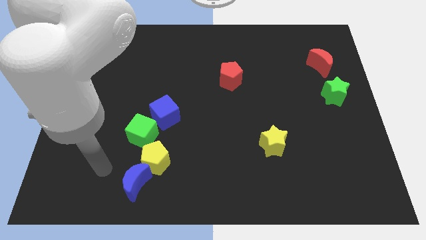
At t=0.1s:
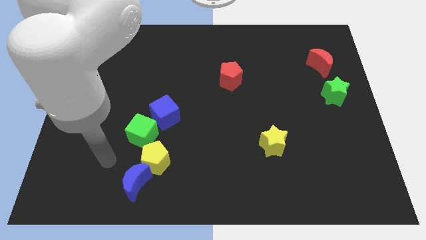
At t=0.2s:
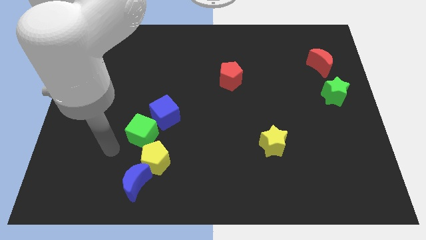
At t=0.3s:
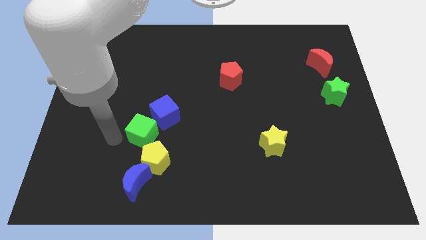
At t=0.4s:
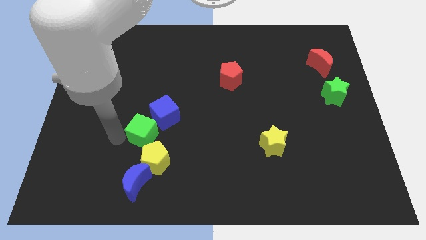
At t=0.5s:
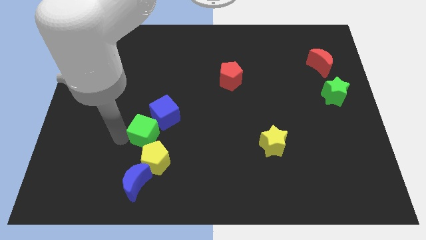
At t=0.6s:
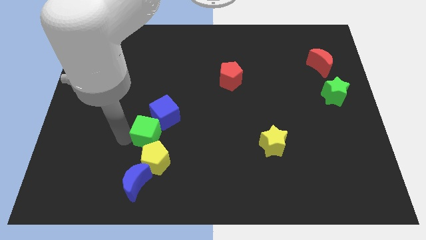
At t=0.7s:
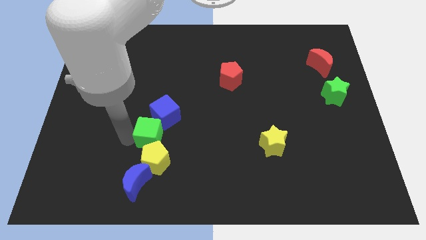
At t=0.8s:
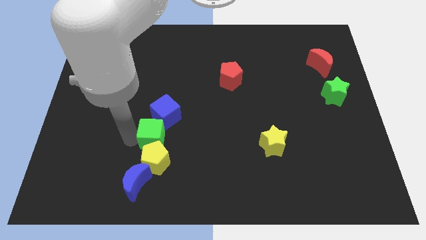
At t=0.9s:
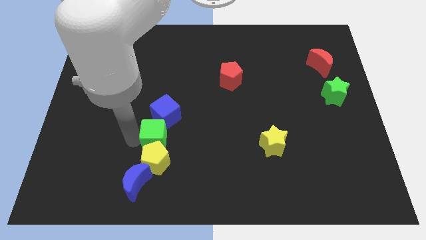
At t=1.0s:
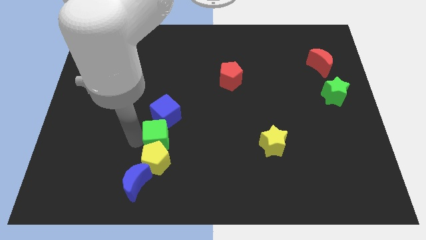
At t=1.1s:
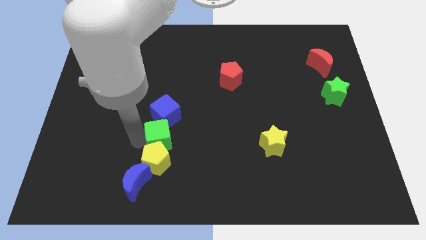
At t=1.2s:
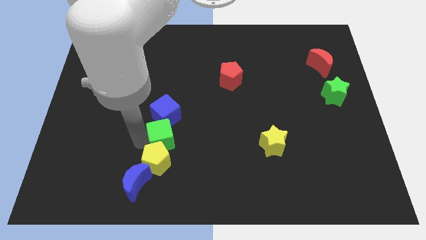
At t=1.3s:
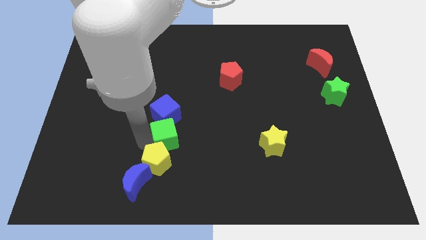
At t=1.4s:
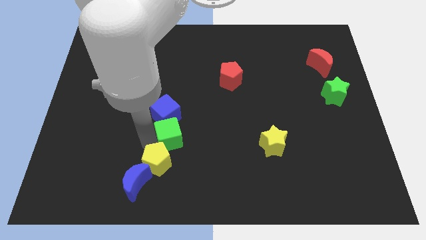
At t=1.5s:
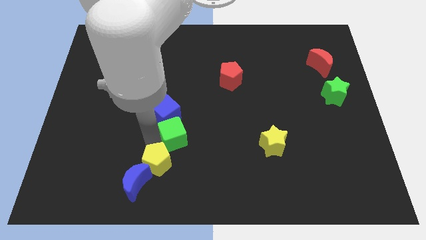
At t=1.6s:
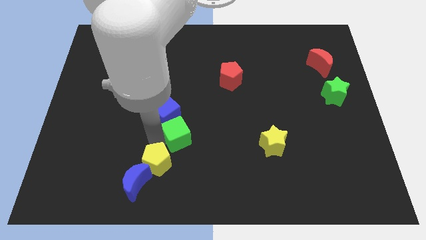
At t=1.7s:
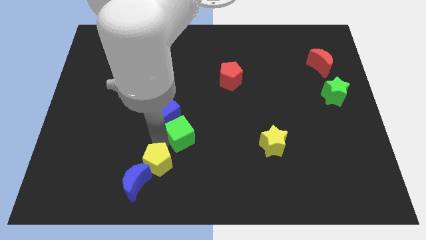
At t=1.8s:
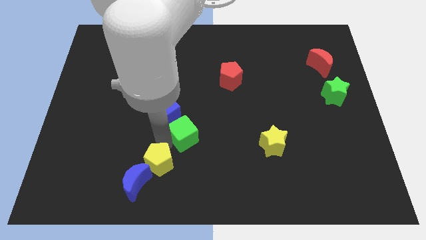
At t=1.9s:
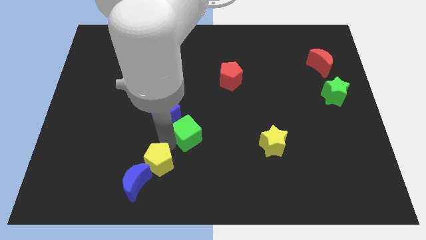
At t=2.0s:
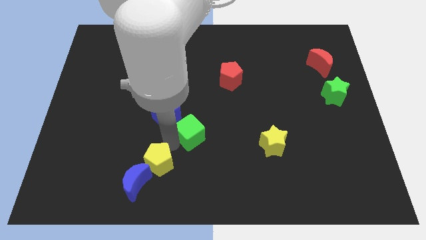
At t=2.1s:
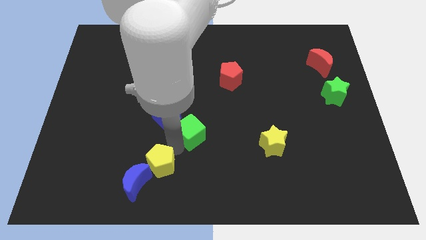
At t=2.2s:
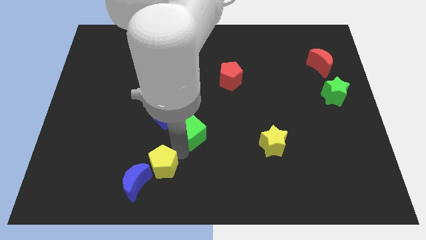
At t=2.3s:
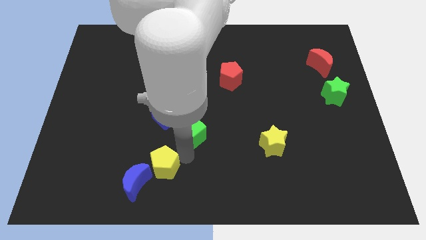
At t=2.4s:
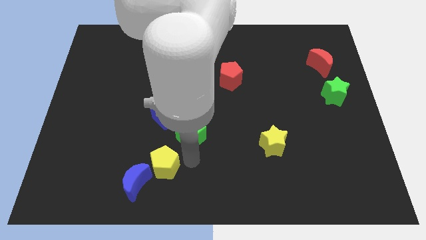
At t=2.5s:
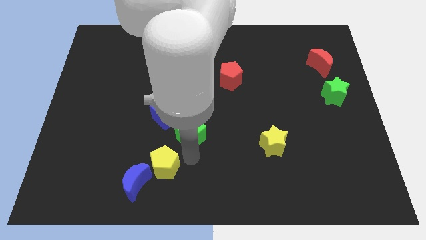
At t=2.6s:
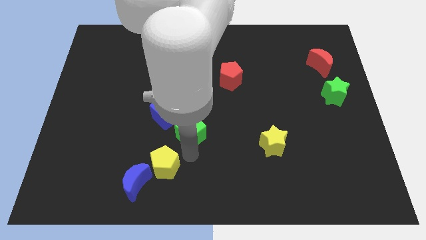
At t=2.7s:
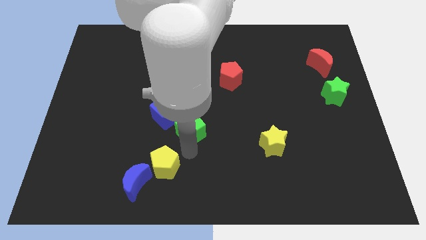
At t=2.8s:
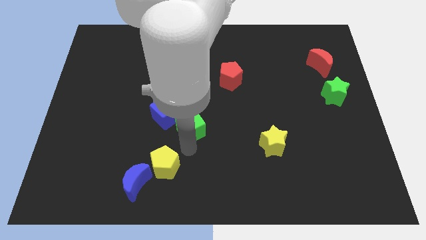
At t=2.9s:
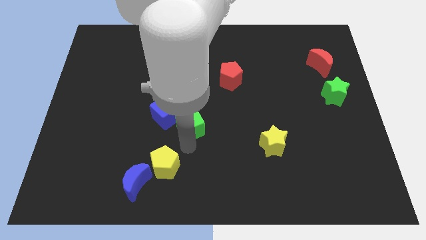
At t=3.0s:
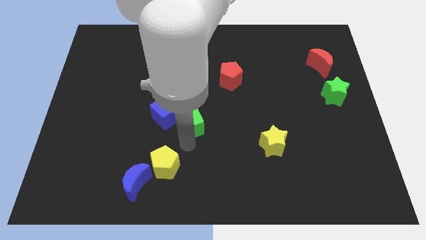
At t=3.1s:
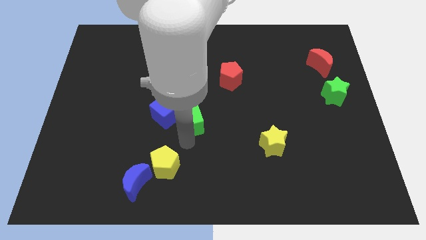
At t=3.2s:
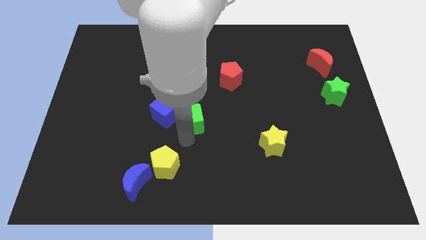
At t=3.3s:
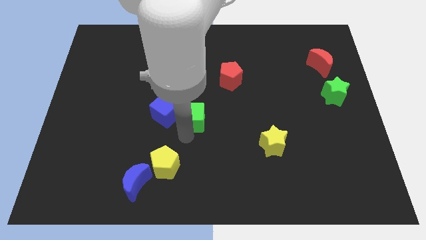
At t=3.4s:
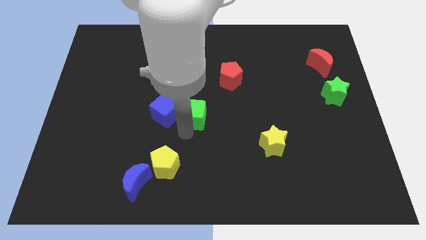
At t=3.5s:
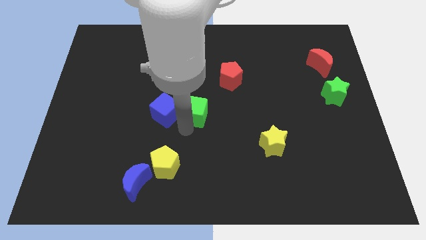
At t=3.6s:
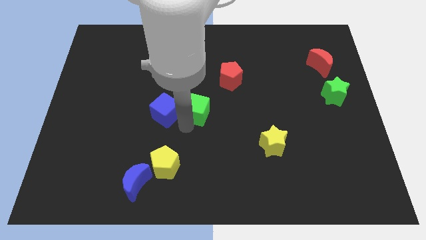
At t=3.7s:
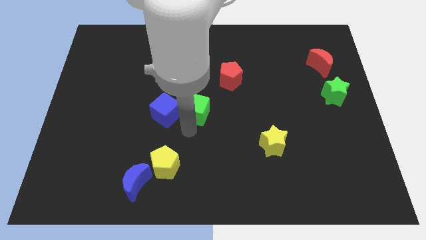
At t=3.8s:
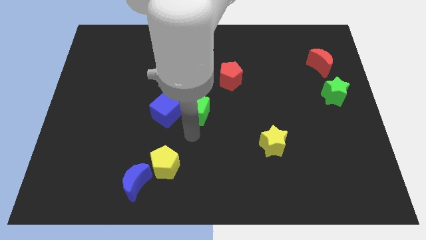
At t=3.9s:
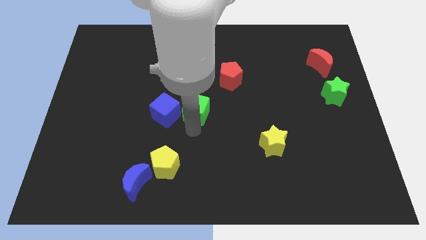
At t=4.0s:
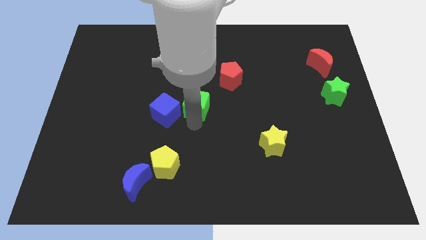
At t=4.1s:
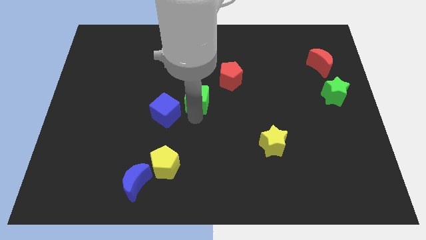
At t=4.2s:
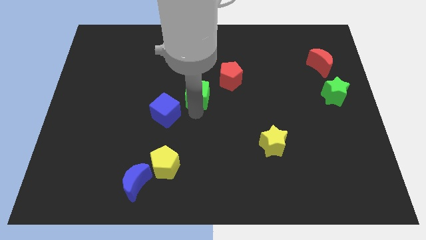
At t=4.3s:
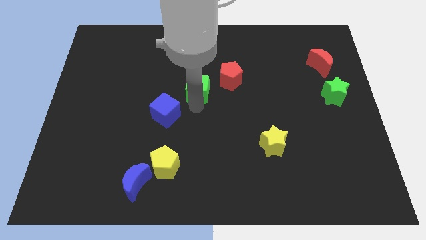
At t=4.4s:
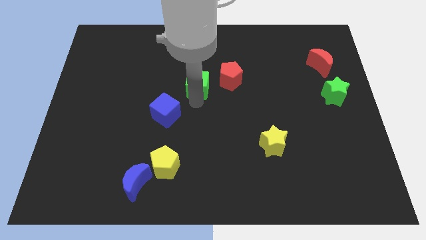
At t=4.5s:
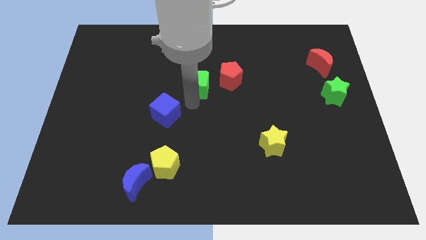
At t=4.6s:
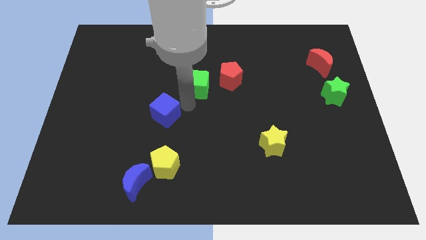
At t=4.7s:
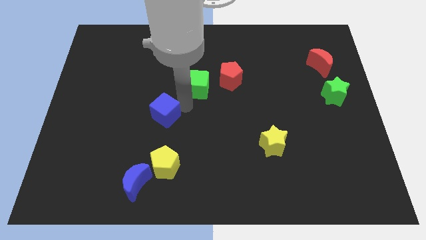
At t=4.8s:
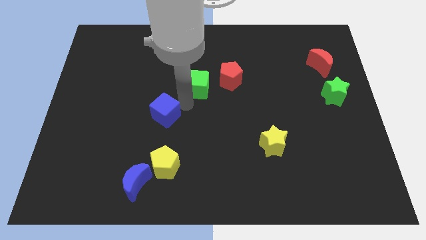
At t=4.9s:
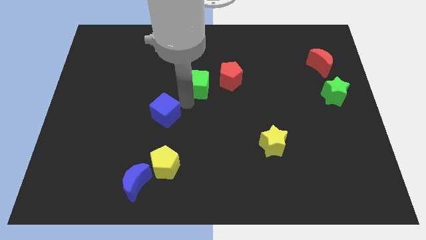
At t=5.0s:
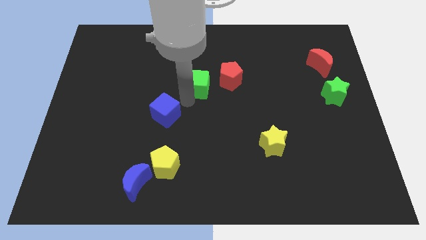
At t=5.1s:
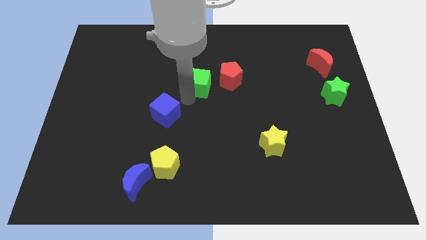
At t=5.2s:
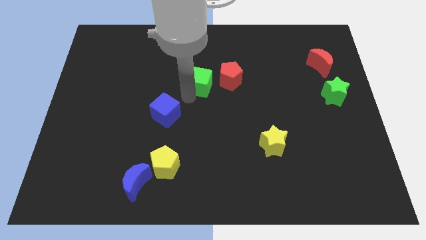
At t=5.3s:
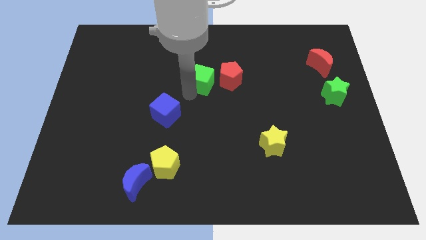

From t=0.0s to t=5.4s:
push the green cube diagonally upwards and to the right

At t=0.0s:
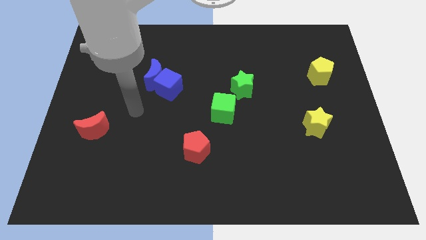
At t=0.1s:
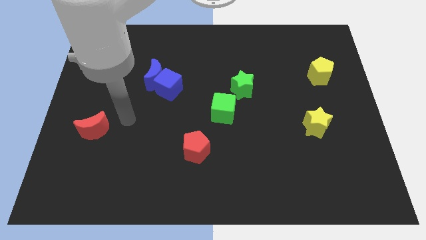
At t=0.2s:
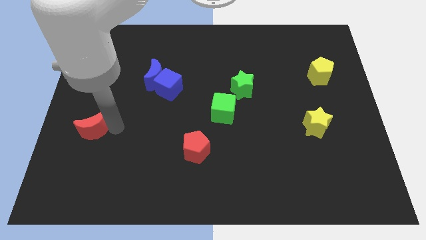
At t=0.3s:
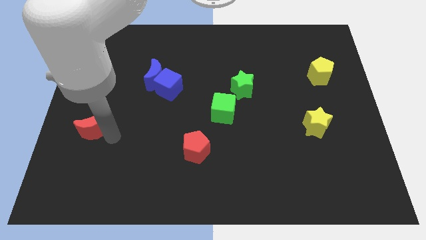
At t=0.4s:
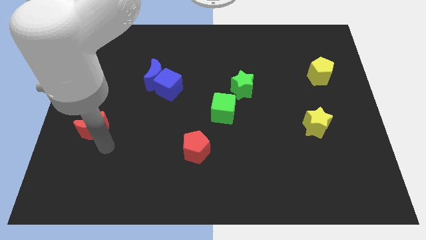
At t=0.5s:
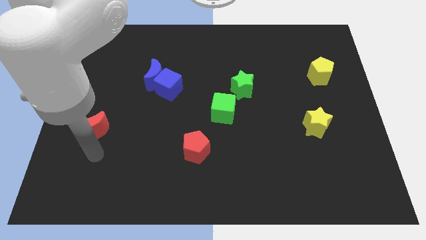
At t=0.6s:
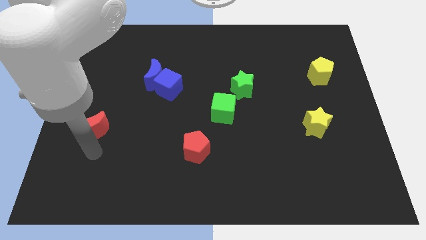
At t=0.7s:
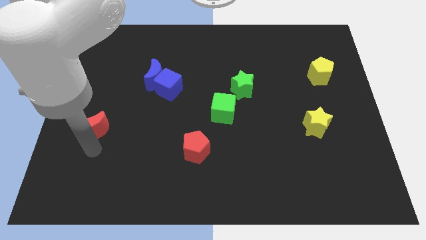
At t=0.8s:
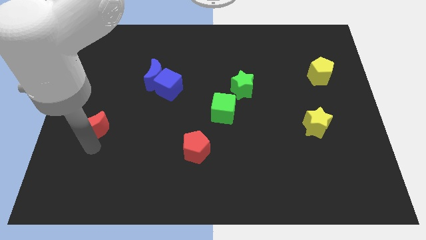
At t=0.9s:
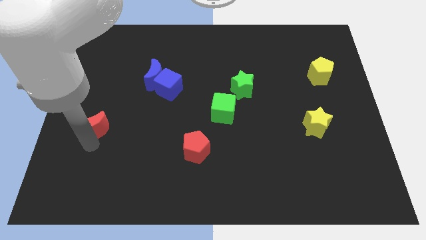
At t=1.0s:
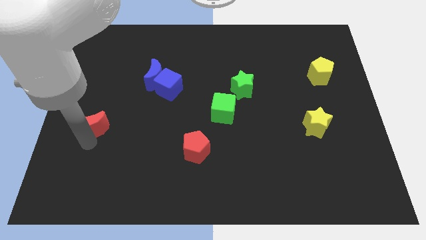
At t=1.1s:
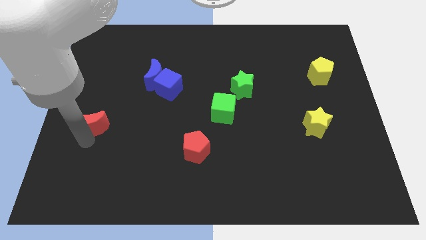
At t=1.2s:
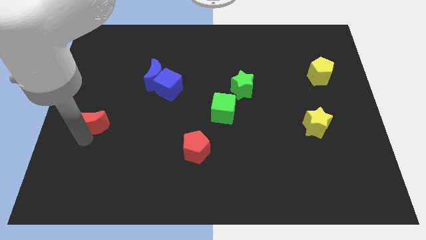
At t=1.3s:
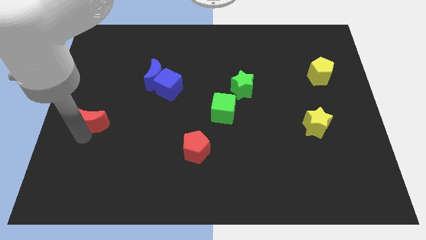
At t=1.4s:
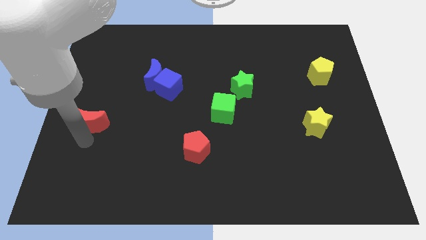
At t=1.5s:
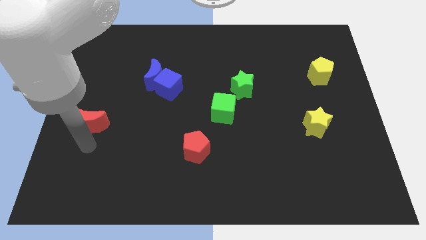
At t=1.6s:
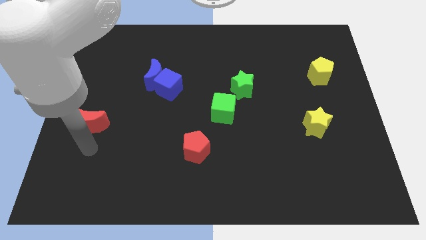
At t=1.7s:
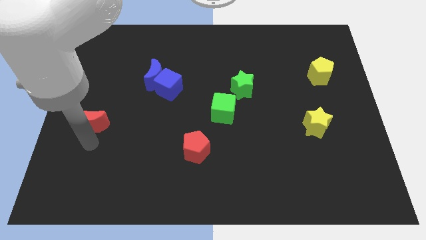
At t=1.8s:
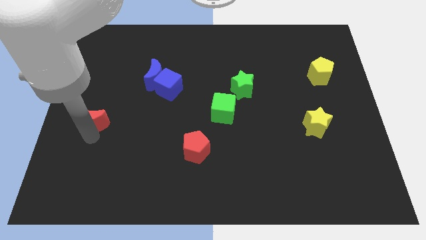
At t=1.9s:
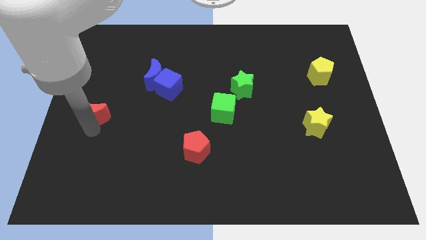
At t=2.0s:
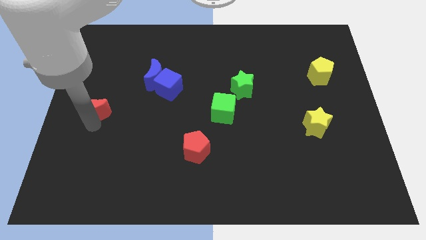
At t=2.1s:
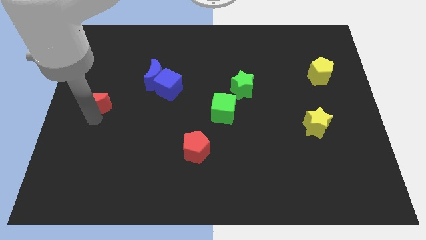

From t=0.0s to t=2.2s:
slightly slide the red moon upwards

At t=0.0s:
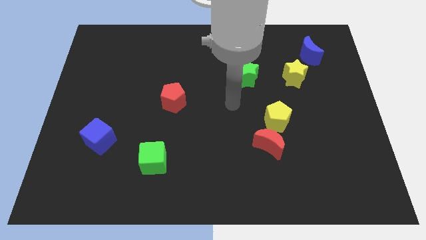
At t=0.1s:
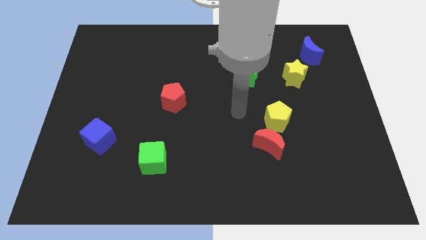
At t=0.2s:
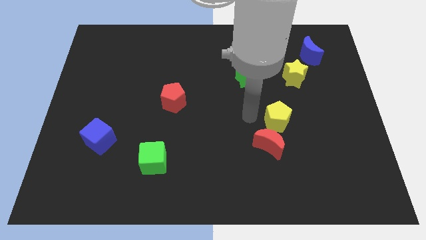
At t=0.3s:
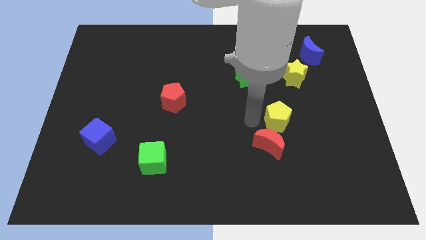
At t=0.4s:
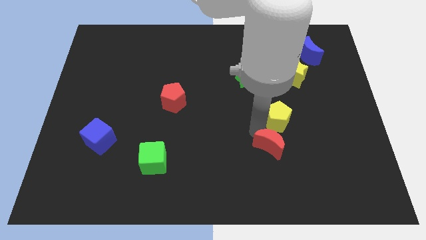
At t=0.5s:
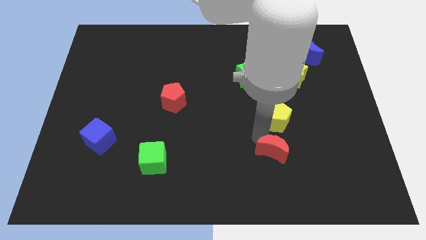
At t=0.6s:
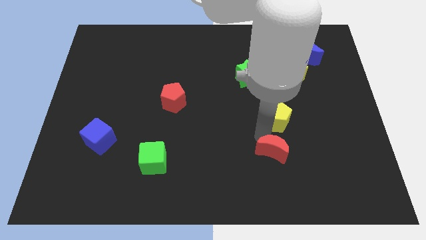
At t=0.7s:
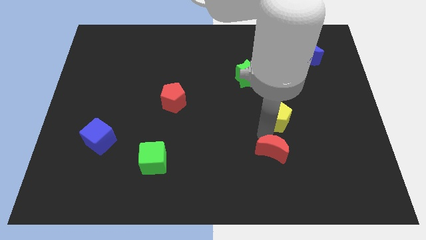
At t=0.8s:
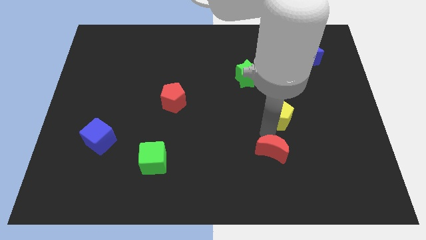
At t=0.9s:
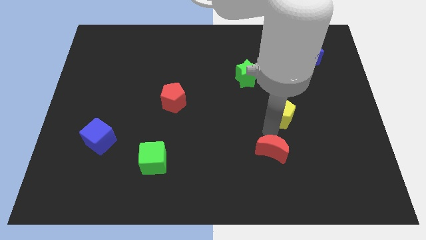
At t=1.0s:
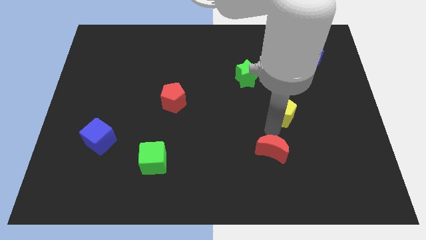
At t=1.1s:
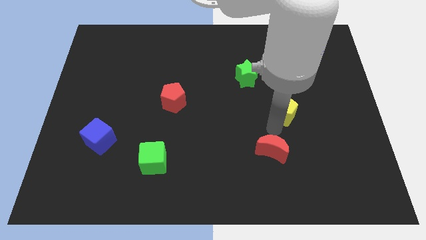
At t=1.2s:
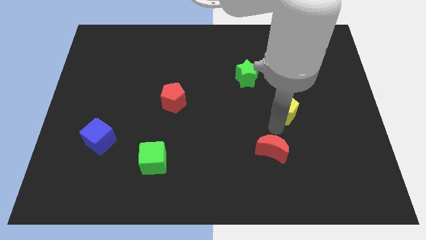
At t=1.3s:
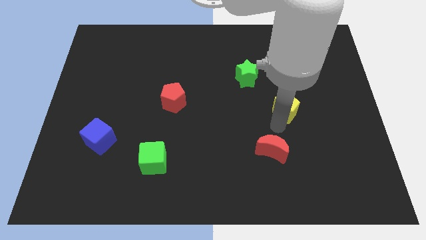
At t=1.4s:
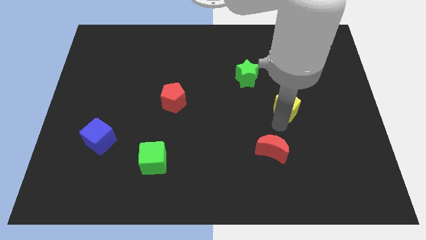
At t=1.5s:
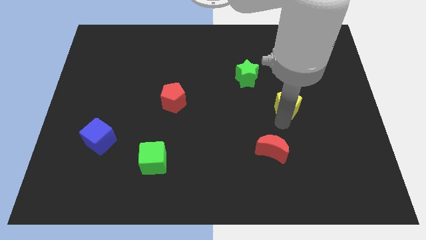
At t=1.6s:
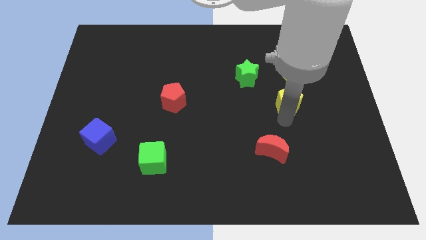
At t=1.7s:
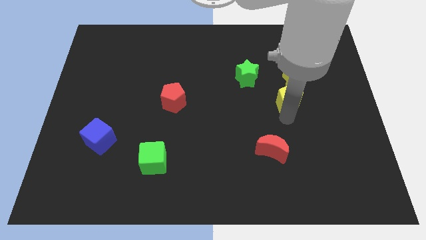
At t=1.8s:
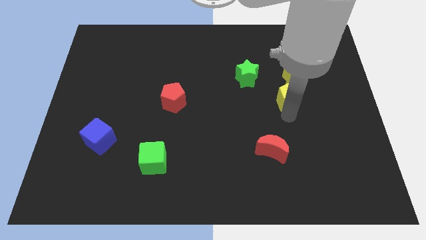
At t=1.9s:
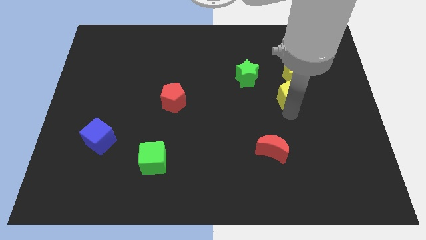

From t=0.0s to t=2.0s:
slightly move the yellow pentagon up and then to the right
